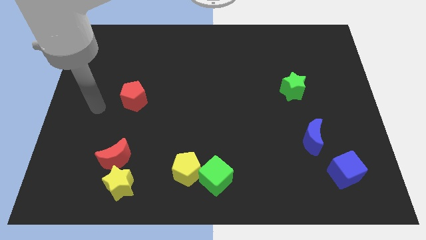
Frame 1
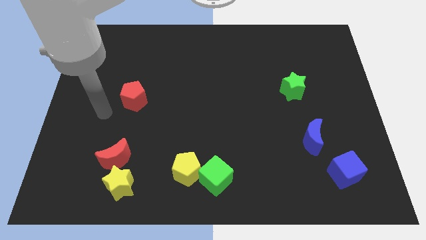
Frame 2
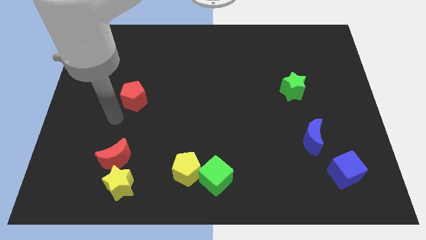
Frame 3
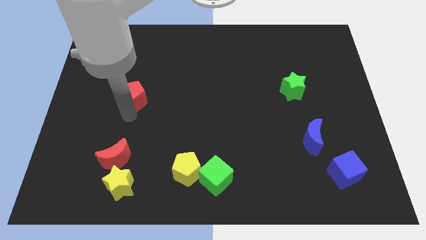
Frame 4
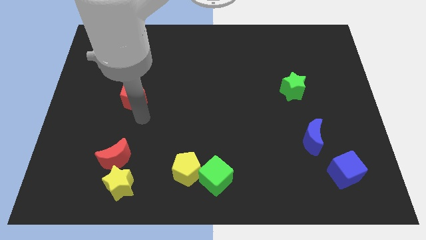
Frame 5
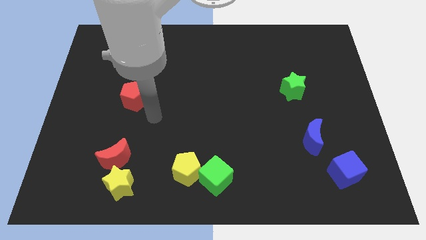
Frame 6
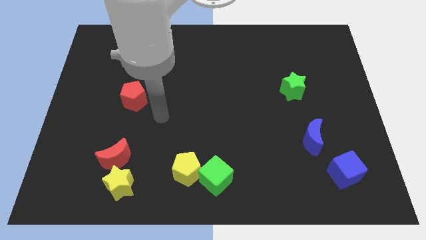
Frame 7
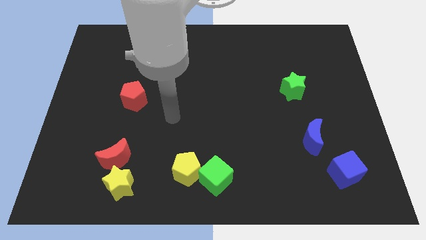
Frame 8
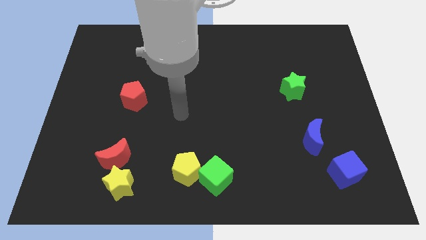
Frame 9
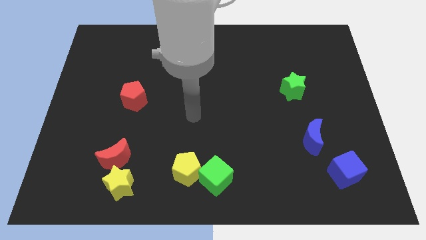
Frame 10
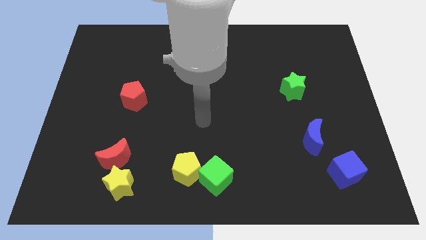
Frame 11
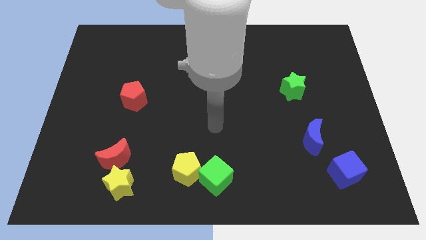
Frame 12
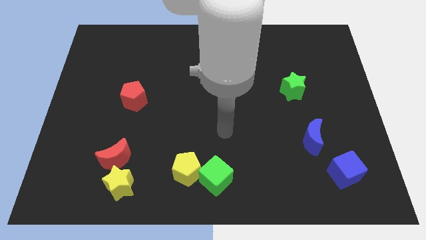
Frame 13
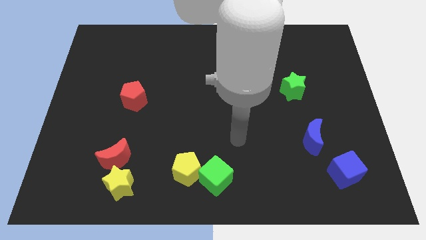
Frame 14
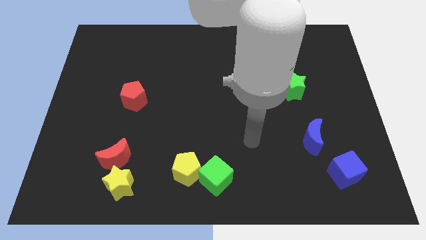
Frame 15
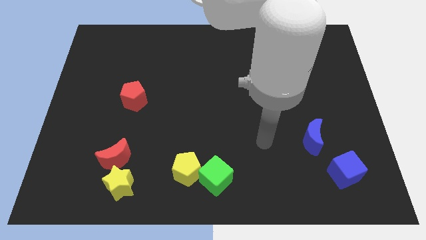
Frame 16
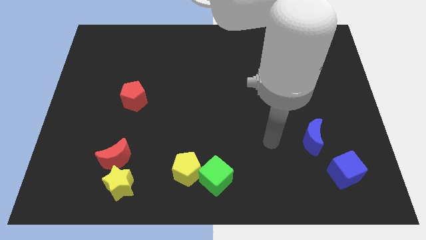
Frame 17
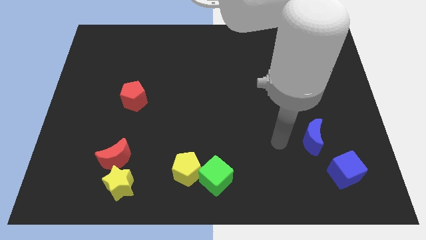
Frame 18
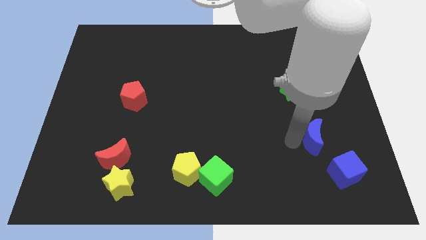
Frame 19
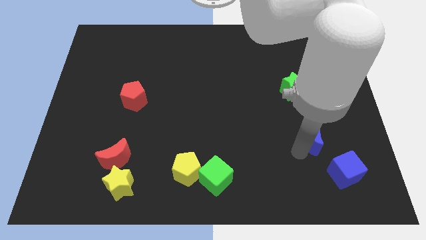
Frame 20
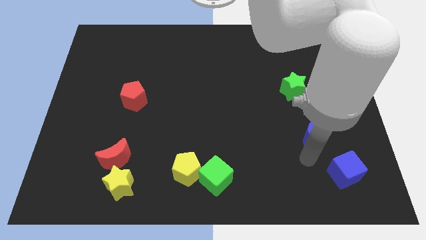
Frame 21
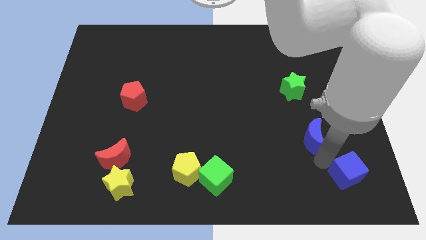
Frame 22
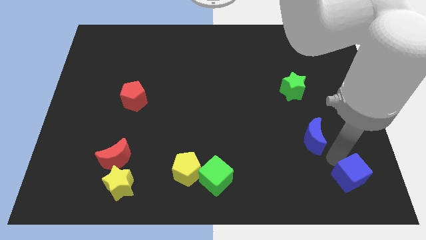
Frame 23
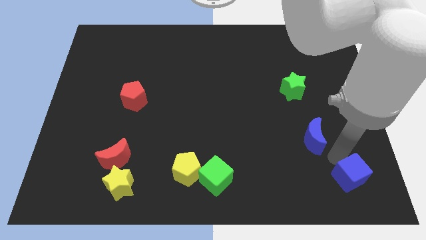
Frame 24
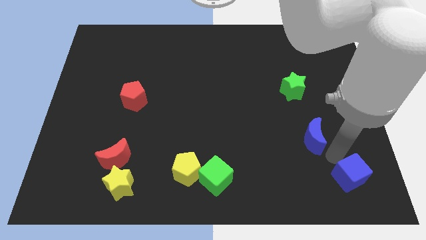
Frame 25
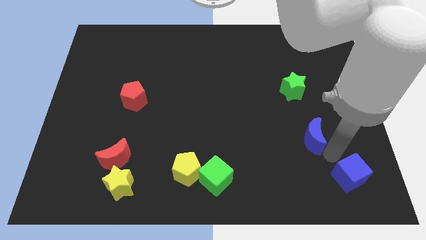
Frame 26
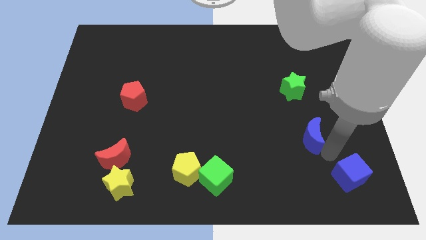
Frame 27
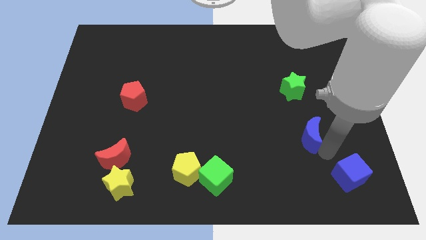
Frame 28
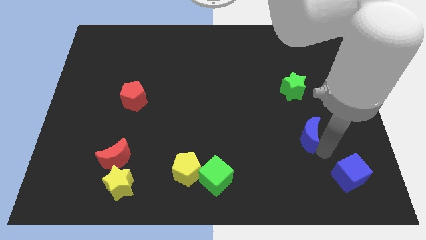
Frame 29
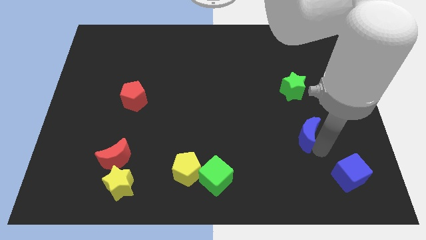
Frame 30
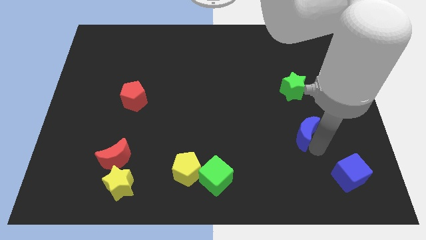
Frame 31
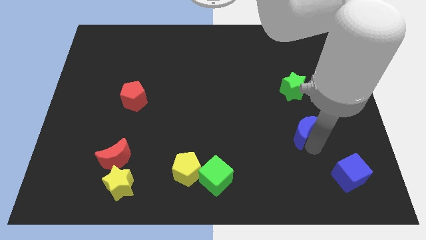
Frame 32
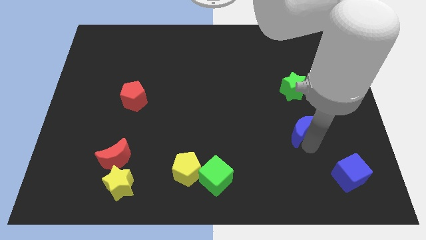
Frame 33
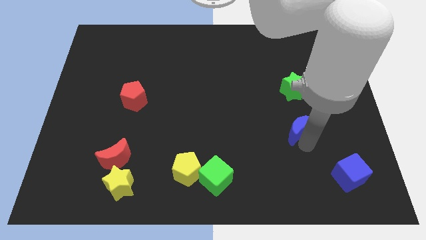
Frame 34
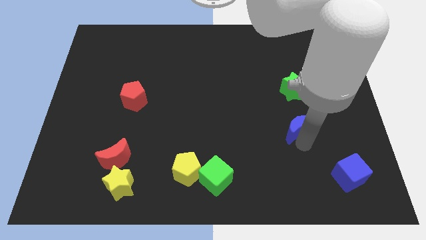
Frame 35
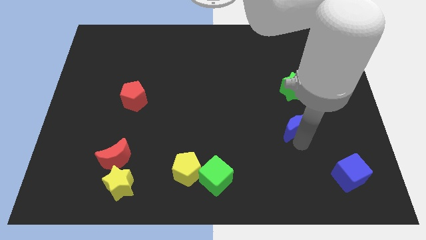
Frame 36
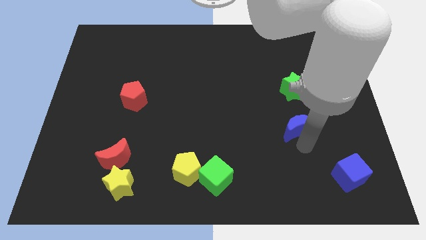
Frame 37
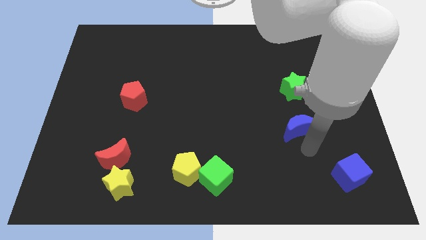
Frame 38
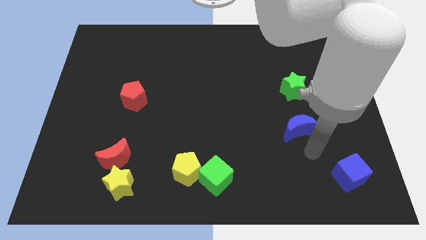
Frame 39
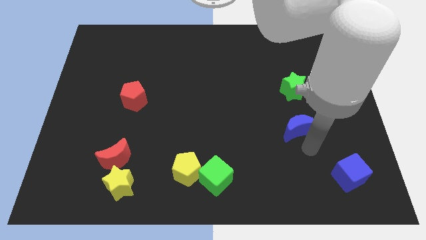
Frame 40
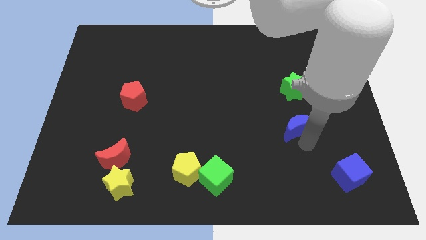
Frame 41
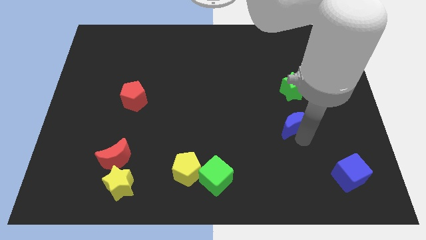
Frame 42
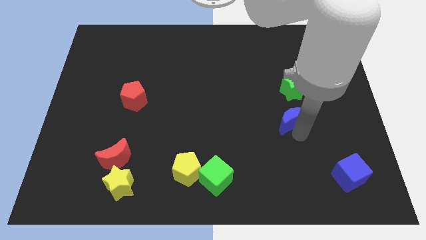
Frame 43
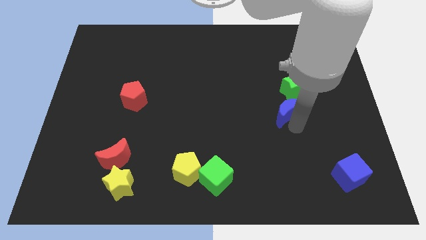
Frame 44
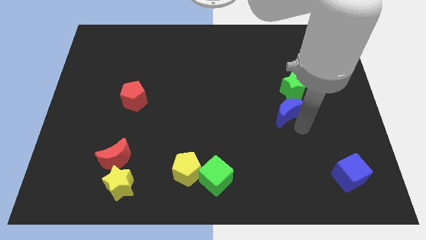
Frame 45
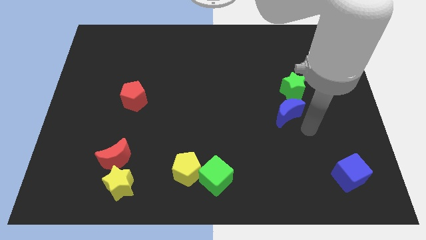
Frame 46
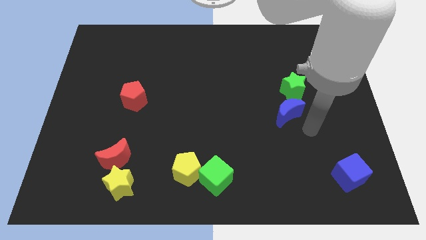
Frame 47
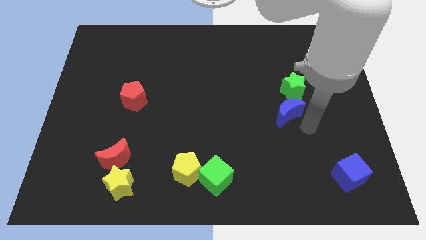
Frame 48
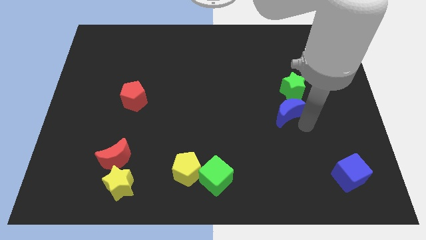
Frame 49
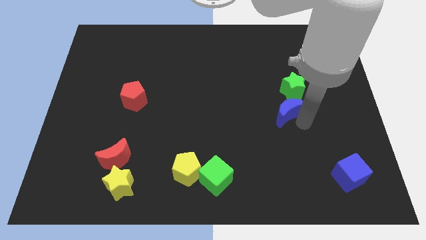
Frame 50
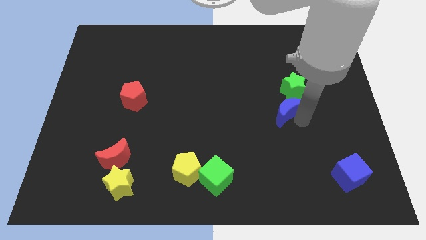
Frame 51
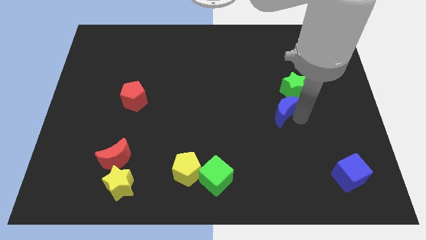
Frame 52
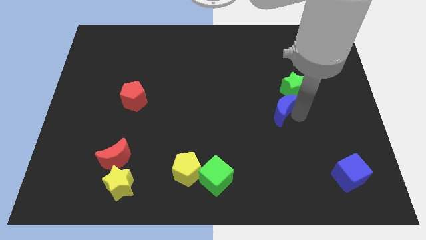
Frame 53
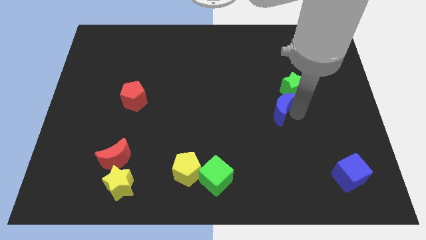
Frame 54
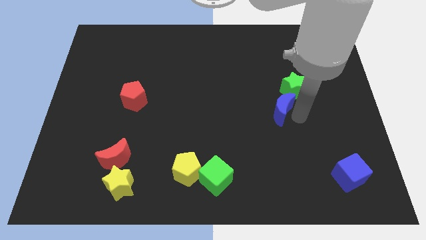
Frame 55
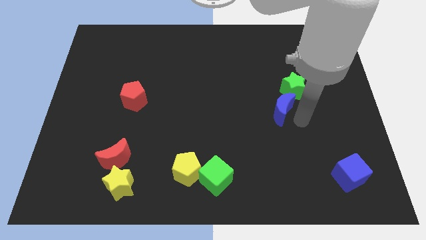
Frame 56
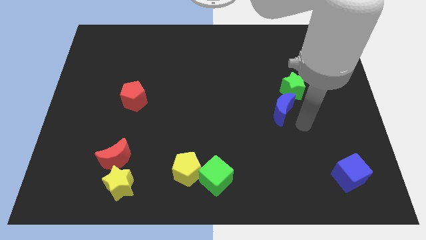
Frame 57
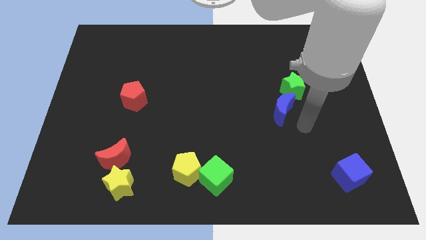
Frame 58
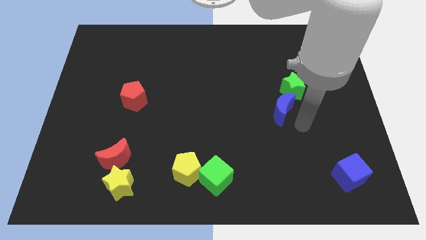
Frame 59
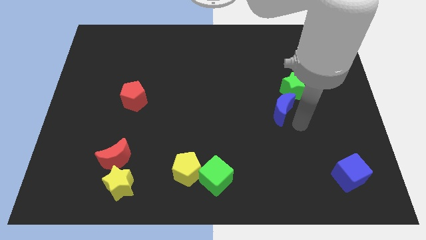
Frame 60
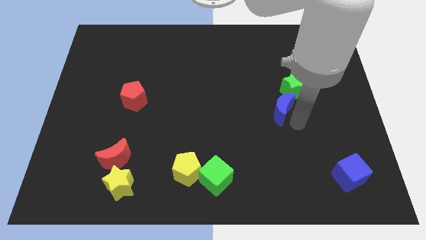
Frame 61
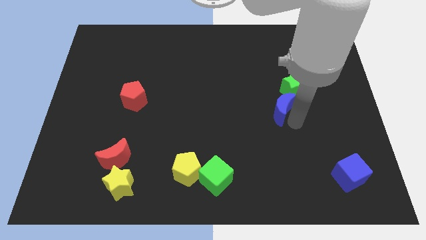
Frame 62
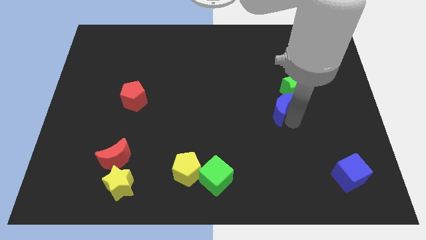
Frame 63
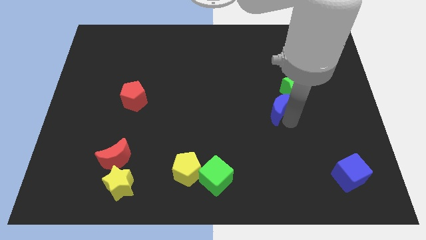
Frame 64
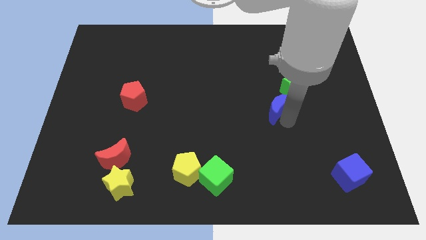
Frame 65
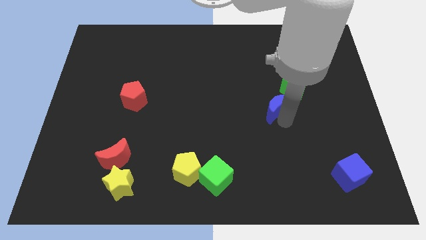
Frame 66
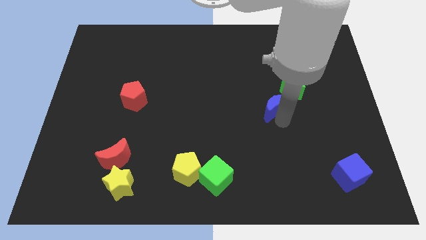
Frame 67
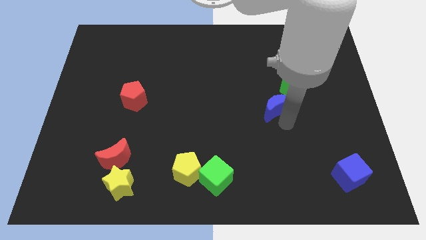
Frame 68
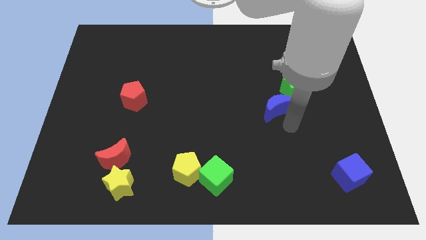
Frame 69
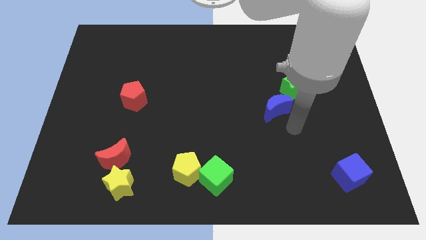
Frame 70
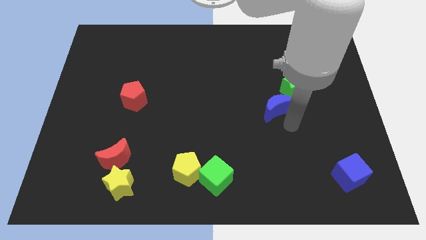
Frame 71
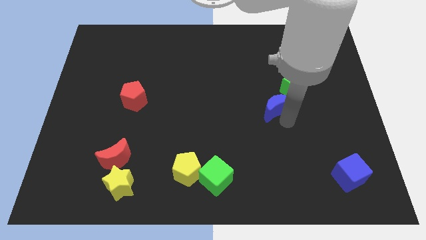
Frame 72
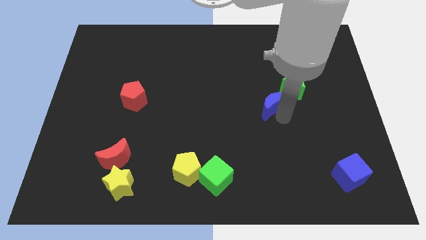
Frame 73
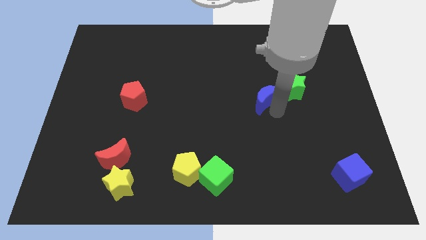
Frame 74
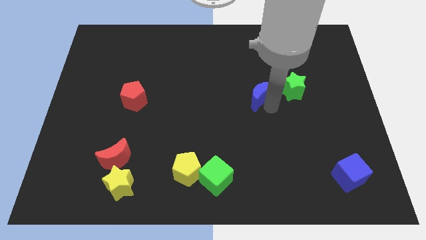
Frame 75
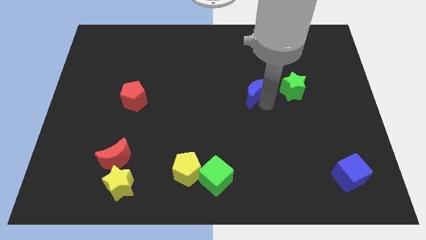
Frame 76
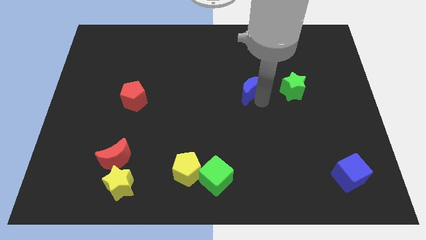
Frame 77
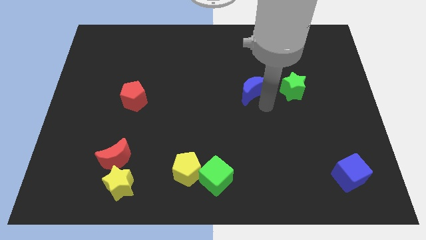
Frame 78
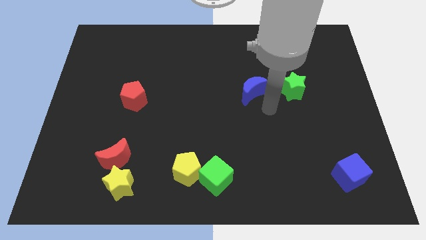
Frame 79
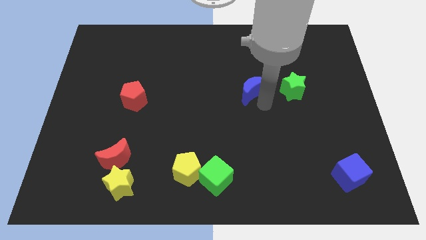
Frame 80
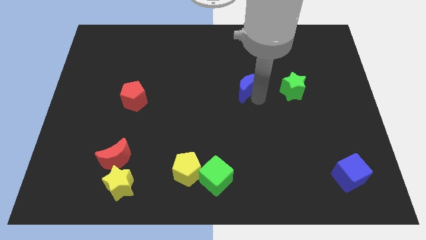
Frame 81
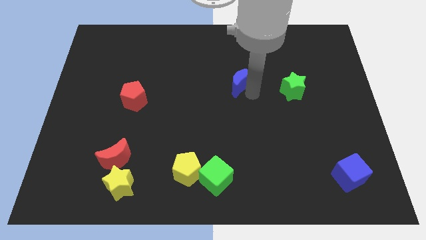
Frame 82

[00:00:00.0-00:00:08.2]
slide the blue moon upwards and left diagonally
